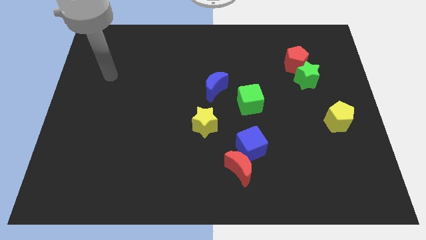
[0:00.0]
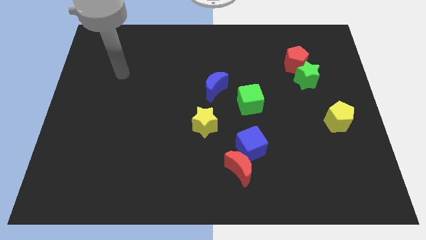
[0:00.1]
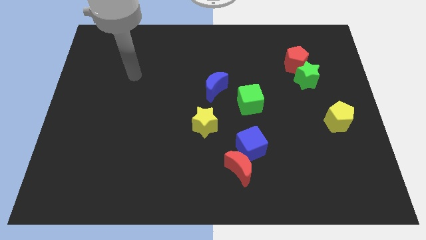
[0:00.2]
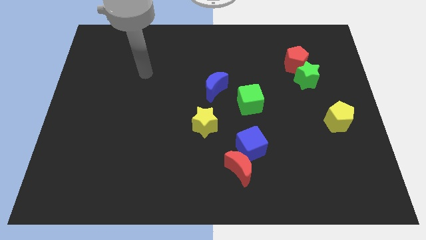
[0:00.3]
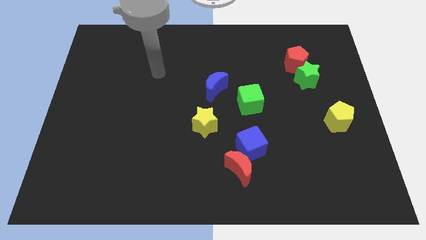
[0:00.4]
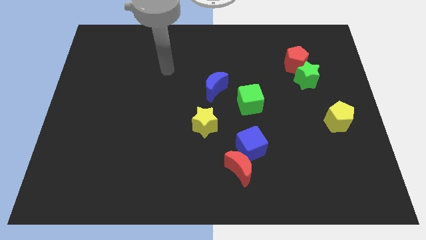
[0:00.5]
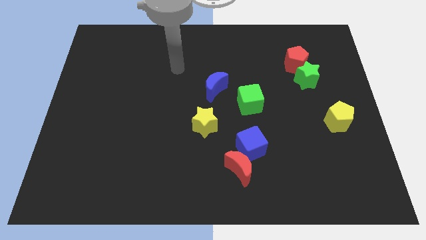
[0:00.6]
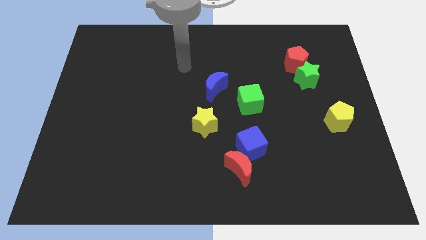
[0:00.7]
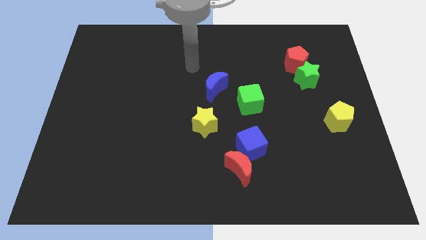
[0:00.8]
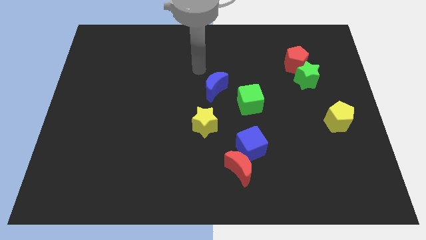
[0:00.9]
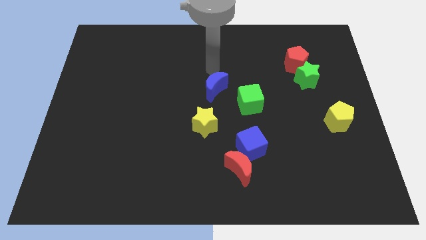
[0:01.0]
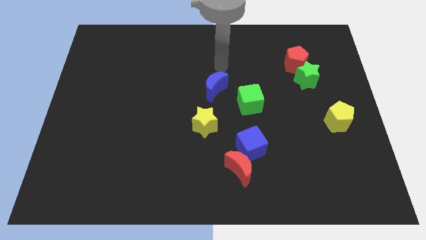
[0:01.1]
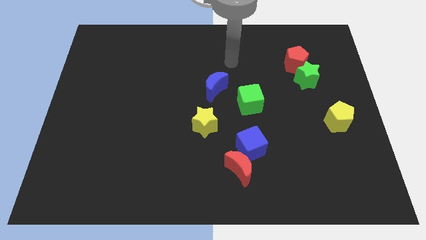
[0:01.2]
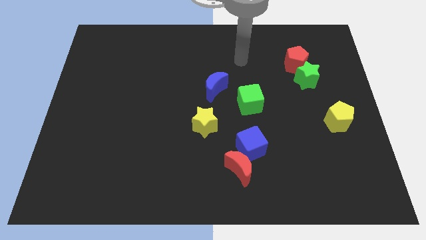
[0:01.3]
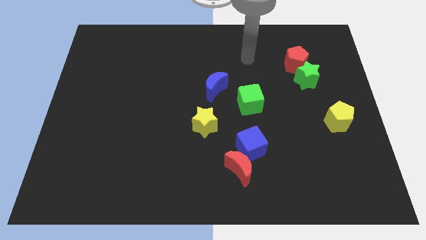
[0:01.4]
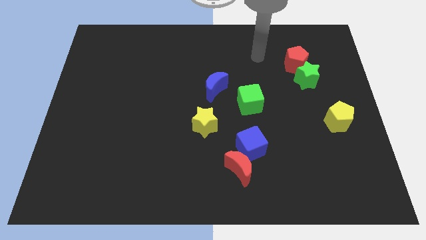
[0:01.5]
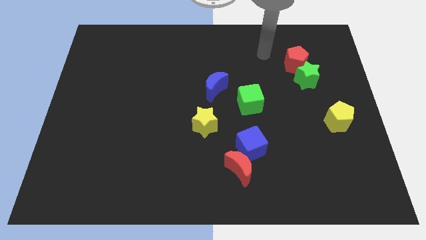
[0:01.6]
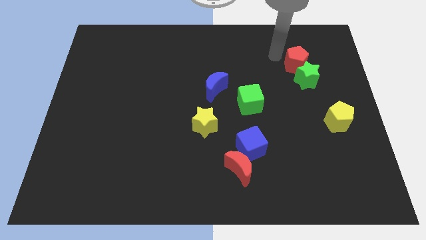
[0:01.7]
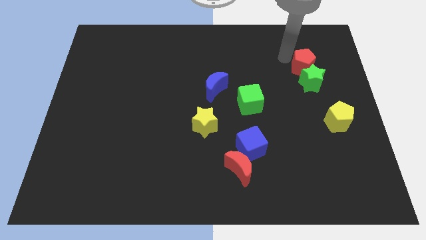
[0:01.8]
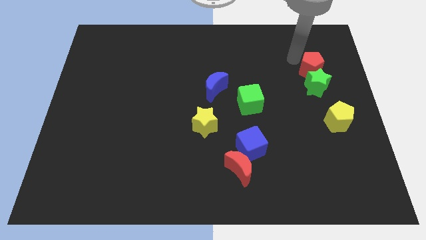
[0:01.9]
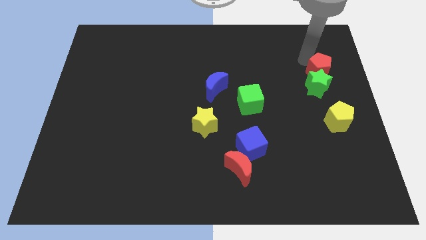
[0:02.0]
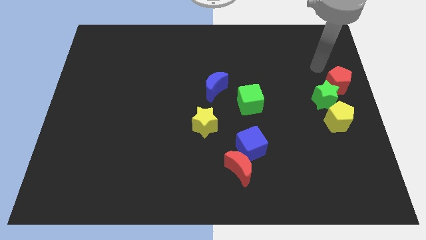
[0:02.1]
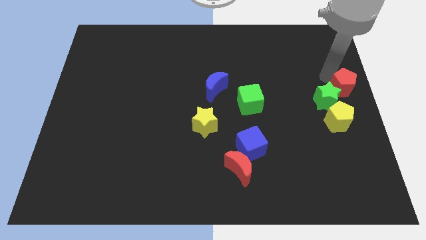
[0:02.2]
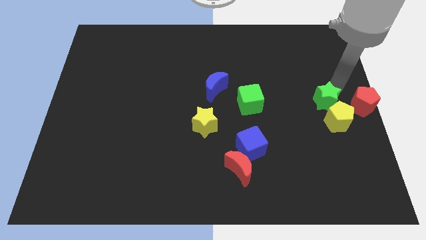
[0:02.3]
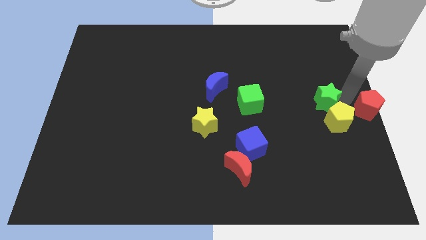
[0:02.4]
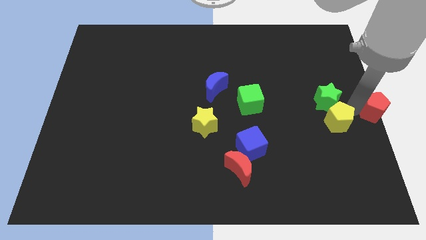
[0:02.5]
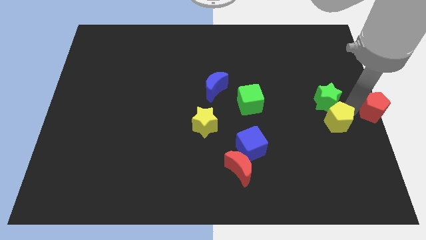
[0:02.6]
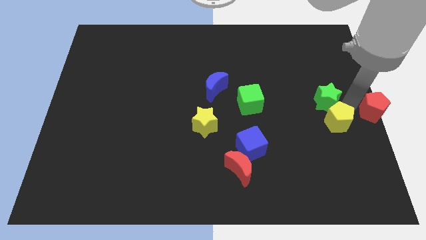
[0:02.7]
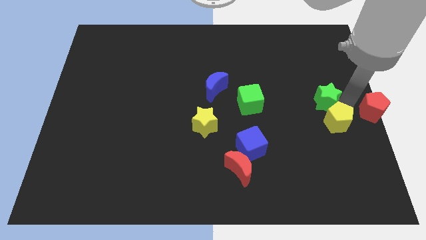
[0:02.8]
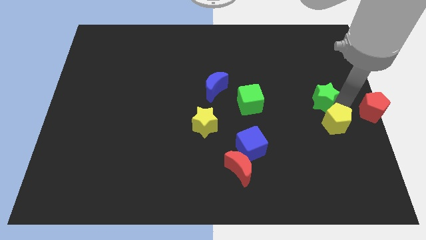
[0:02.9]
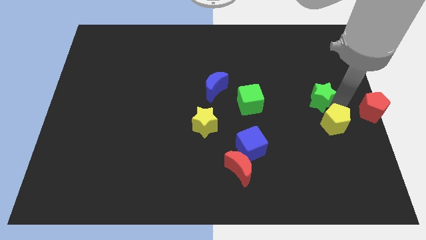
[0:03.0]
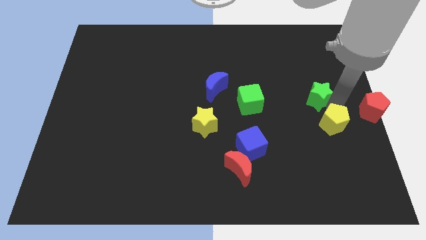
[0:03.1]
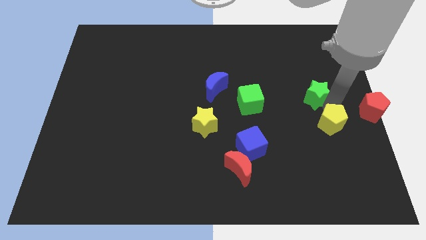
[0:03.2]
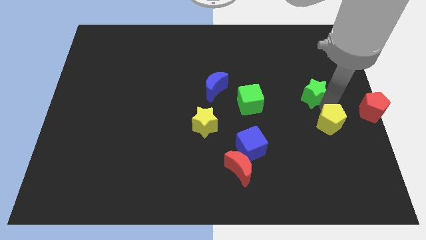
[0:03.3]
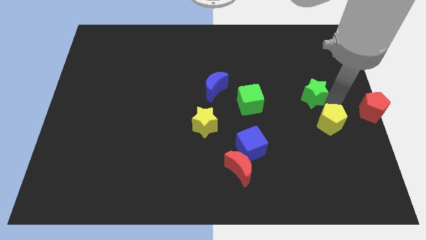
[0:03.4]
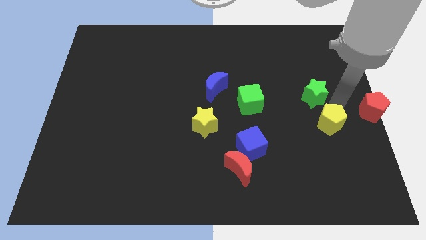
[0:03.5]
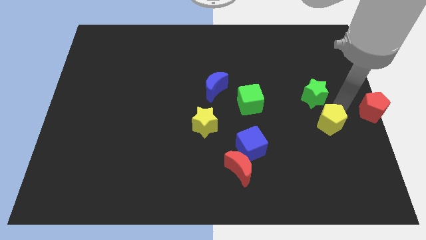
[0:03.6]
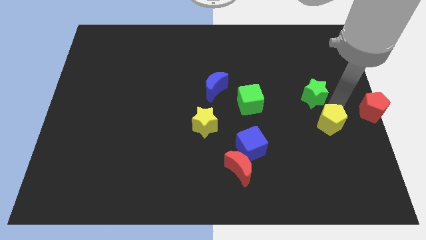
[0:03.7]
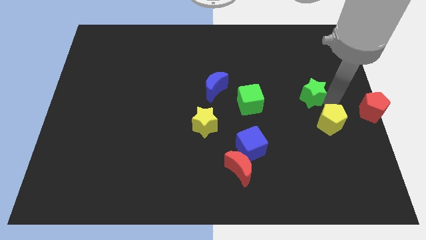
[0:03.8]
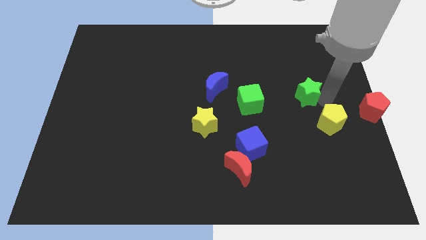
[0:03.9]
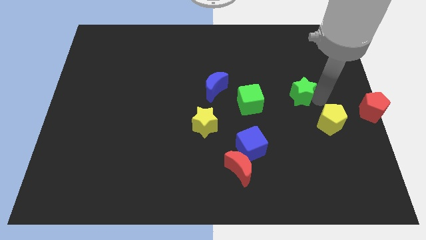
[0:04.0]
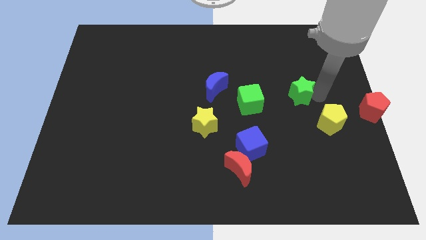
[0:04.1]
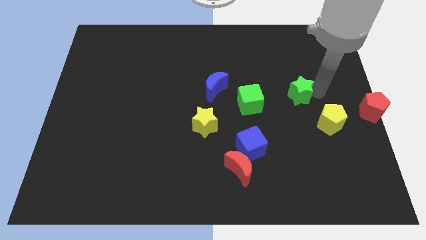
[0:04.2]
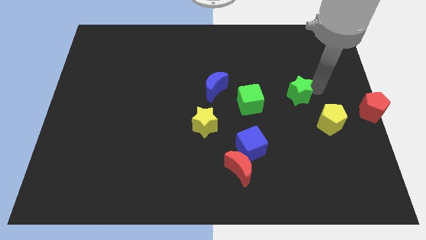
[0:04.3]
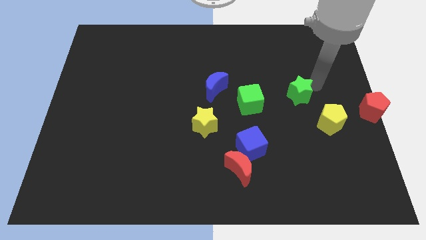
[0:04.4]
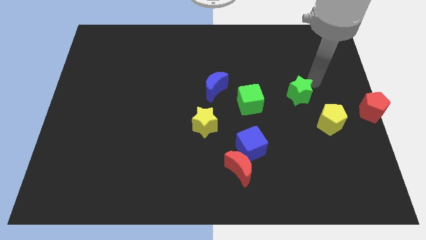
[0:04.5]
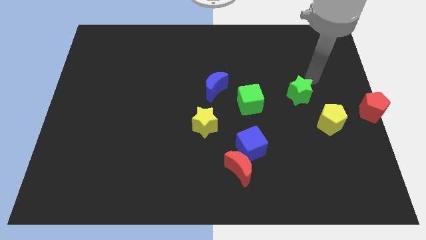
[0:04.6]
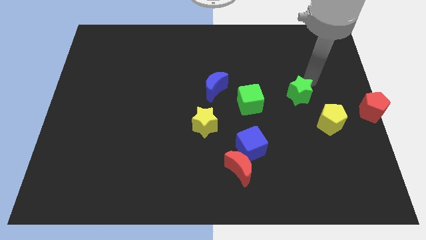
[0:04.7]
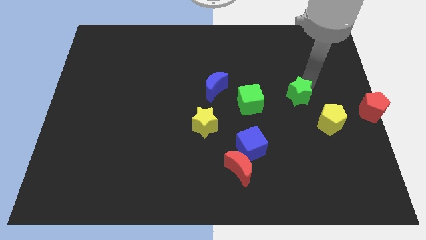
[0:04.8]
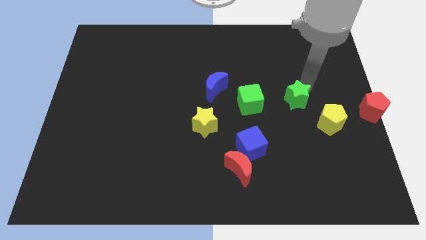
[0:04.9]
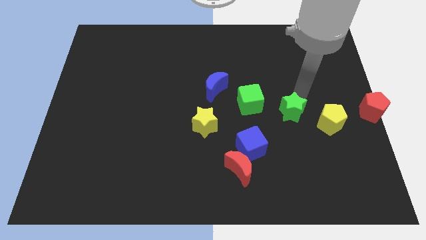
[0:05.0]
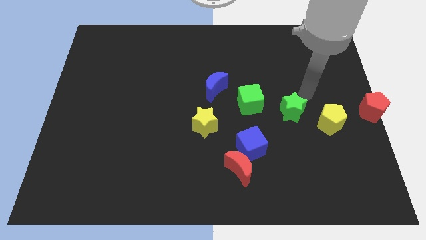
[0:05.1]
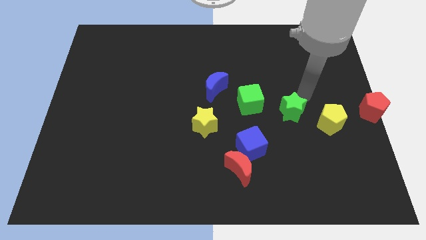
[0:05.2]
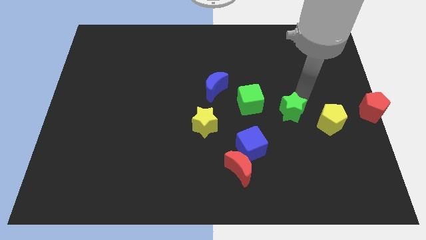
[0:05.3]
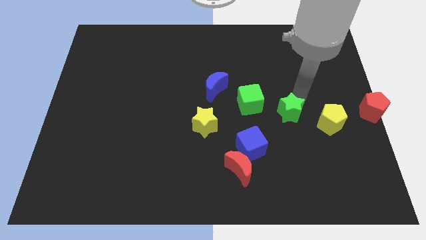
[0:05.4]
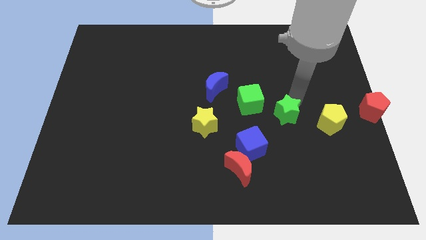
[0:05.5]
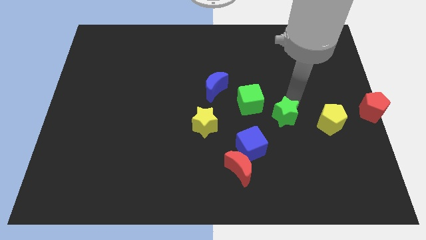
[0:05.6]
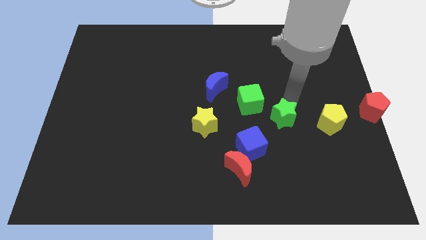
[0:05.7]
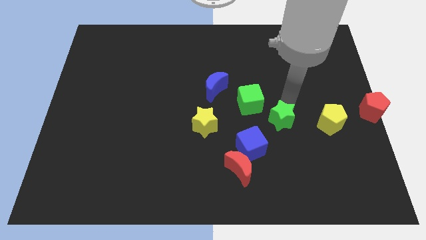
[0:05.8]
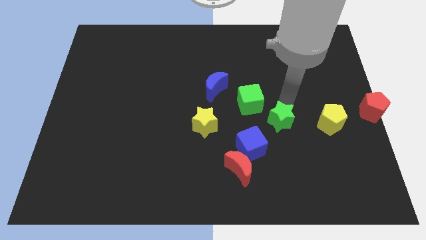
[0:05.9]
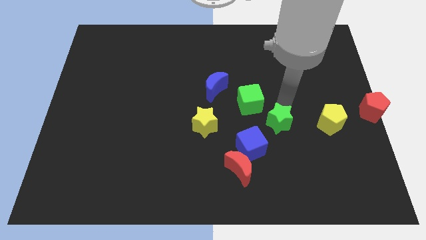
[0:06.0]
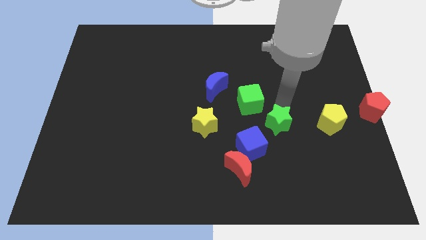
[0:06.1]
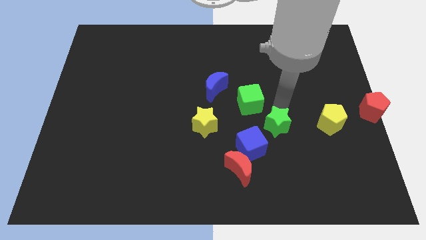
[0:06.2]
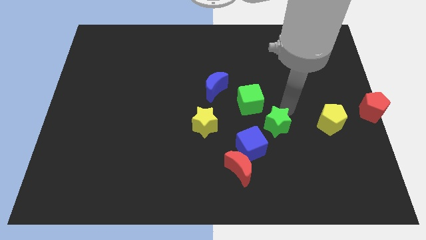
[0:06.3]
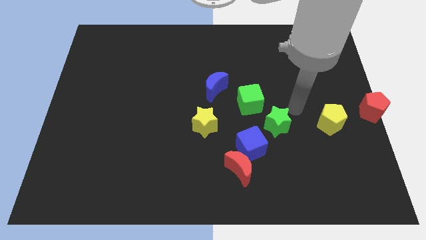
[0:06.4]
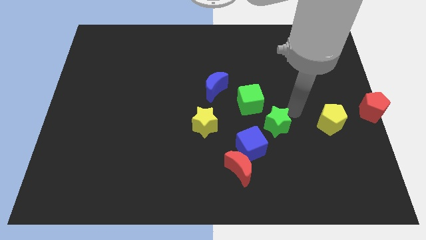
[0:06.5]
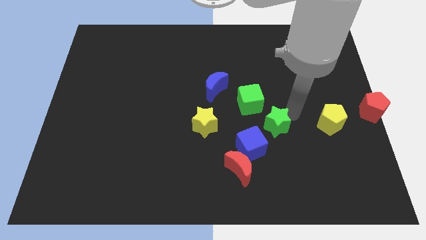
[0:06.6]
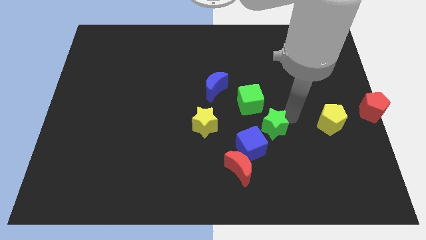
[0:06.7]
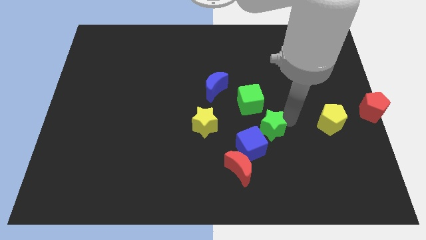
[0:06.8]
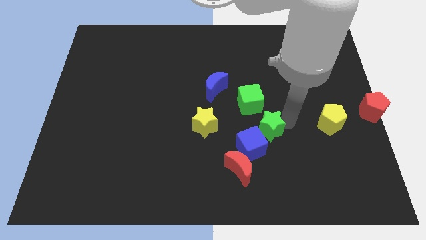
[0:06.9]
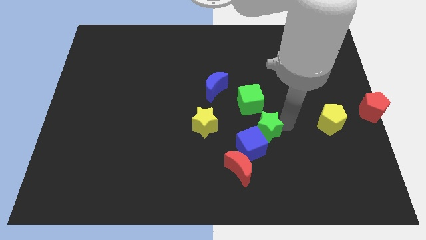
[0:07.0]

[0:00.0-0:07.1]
push the green star towards the blue cube

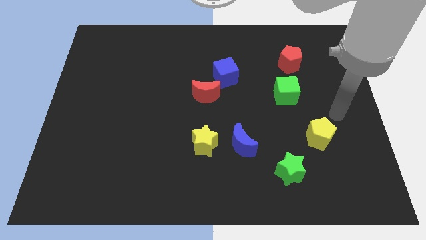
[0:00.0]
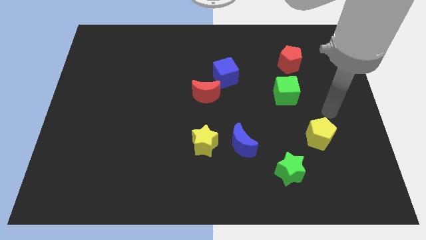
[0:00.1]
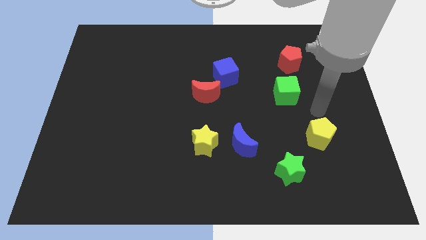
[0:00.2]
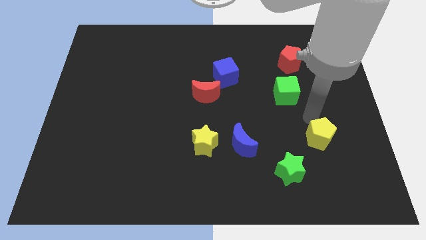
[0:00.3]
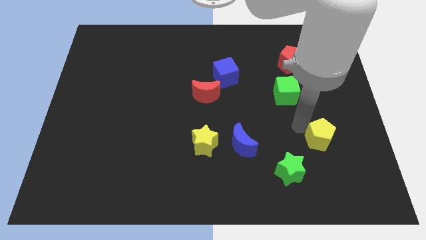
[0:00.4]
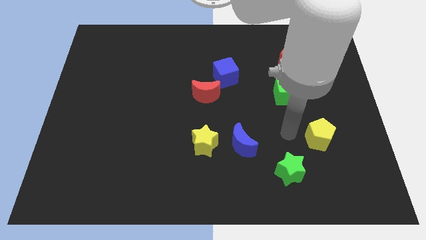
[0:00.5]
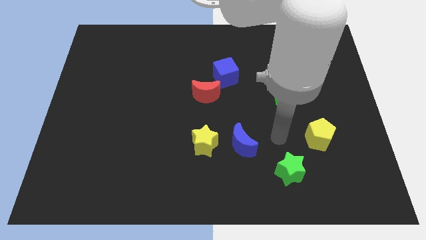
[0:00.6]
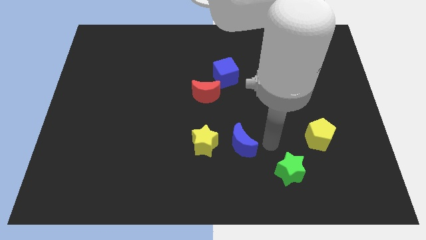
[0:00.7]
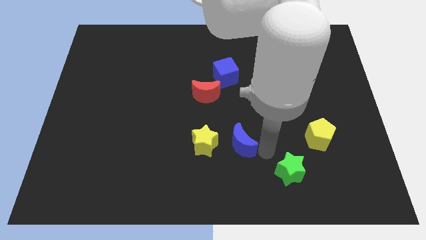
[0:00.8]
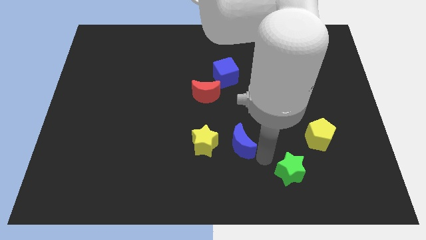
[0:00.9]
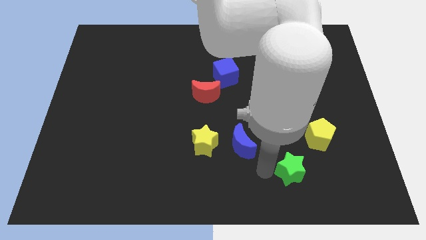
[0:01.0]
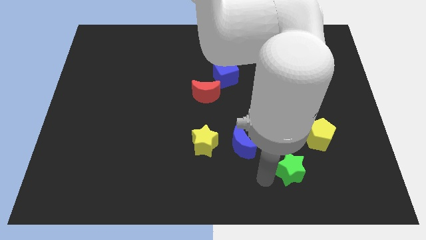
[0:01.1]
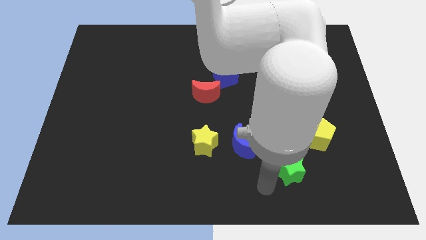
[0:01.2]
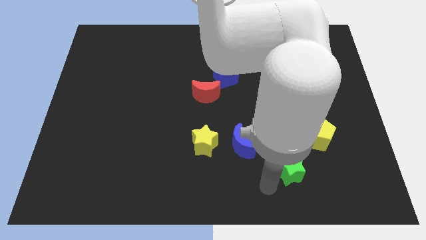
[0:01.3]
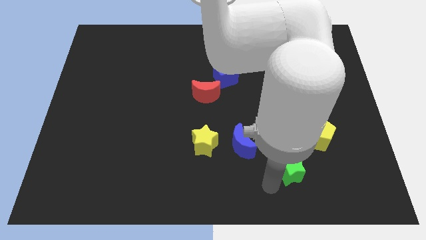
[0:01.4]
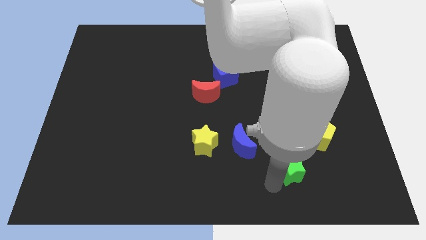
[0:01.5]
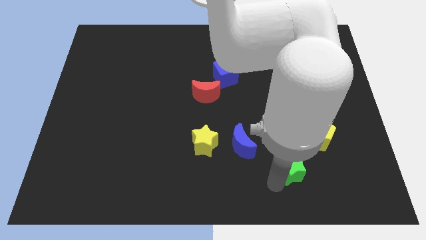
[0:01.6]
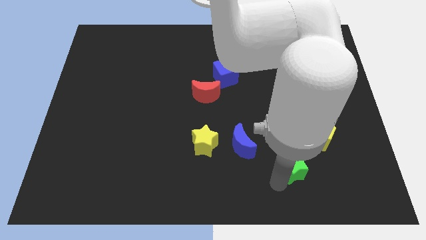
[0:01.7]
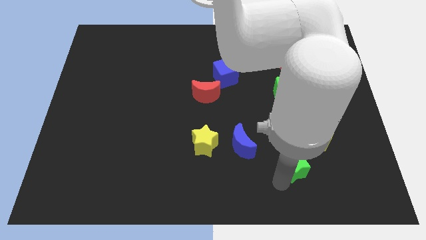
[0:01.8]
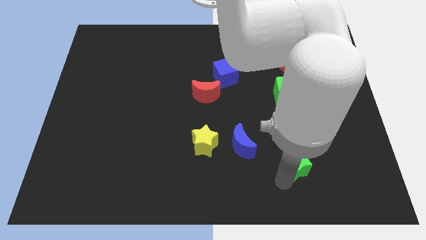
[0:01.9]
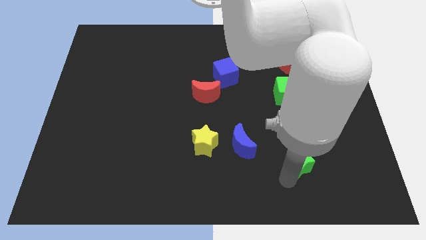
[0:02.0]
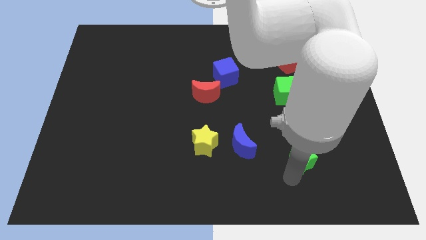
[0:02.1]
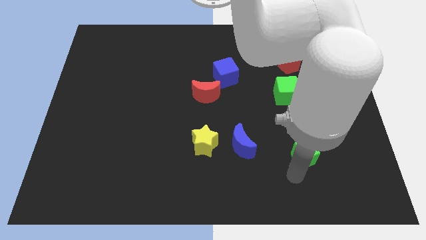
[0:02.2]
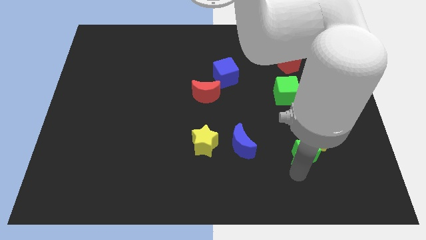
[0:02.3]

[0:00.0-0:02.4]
move the green star towards the yellow pentagon
